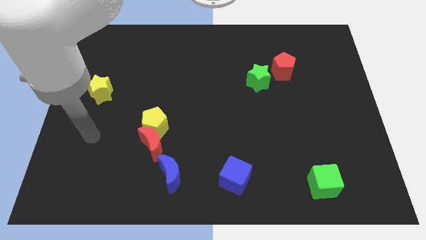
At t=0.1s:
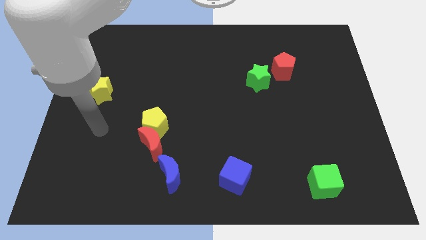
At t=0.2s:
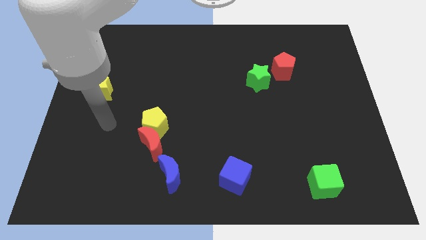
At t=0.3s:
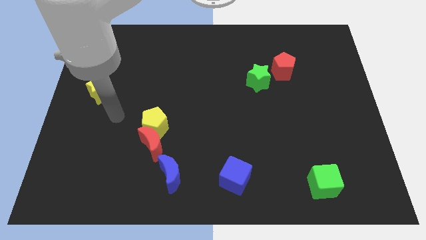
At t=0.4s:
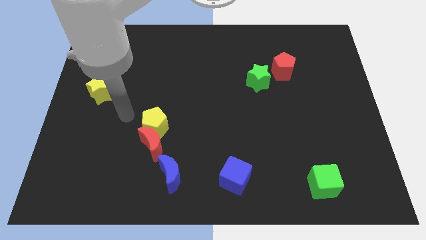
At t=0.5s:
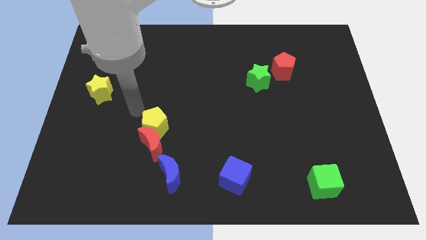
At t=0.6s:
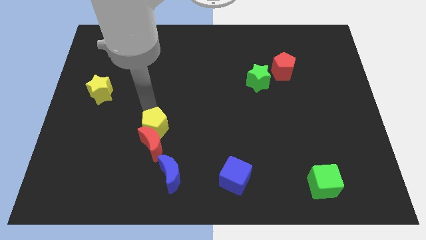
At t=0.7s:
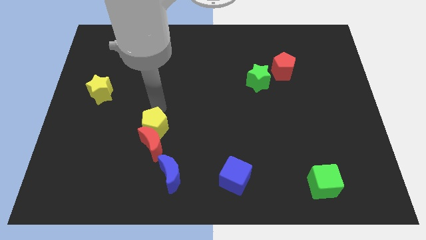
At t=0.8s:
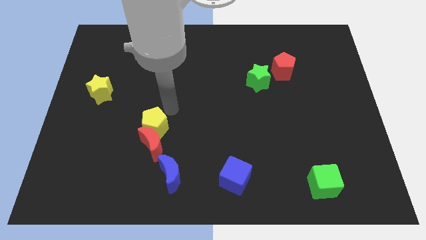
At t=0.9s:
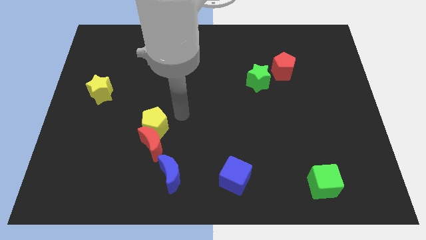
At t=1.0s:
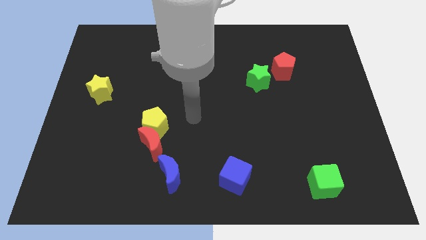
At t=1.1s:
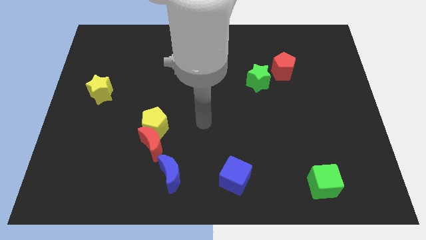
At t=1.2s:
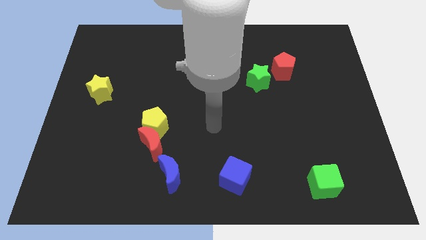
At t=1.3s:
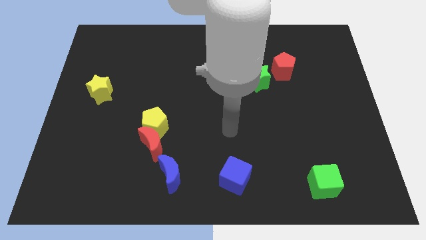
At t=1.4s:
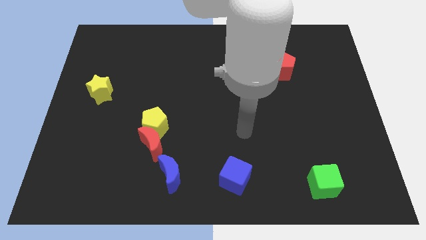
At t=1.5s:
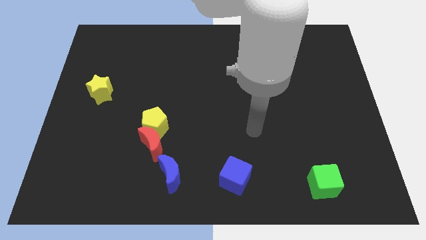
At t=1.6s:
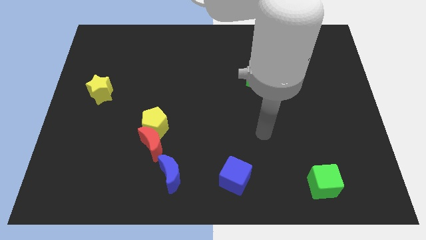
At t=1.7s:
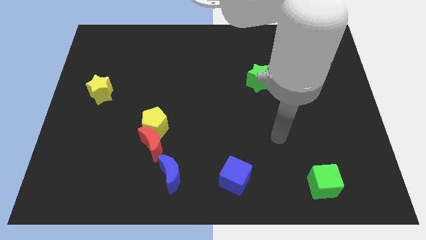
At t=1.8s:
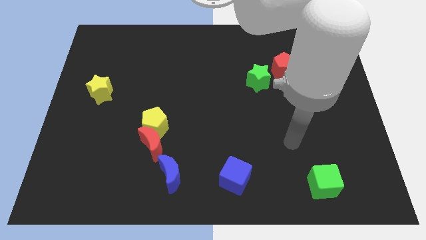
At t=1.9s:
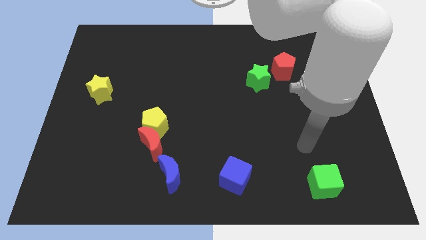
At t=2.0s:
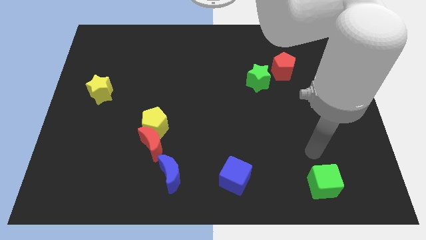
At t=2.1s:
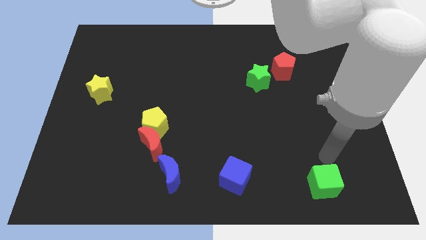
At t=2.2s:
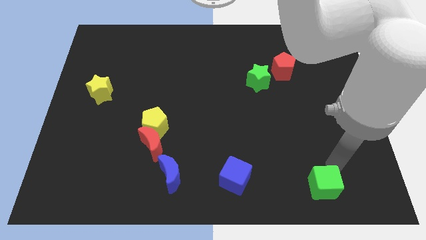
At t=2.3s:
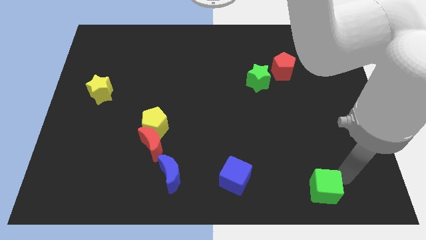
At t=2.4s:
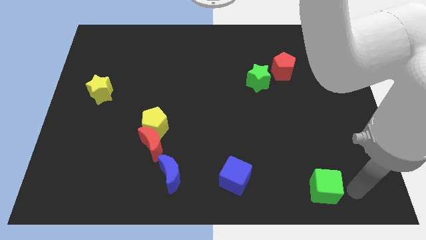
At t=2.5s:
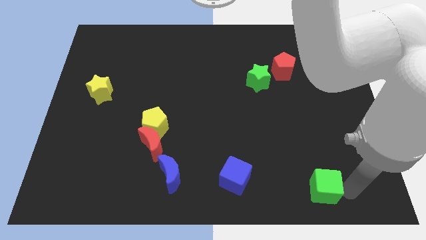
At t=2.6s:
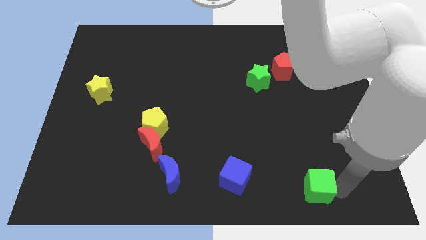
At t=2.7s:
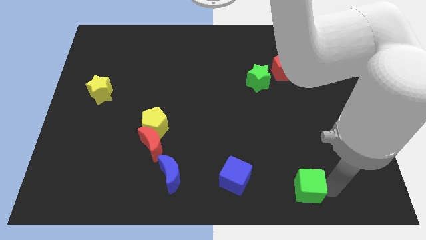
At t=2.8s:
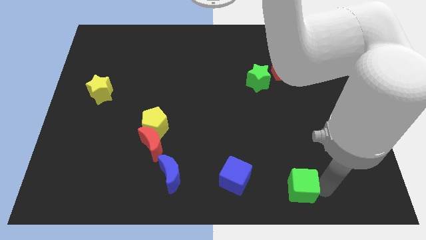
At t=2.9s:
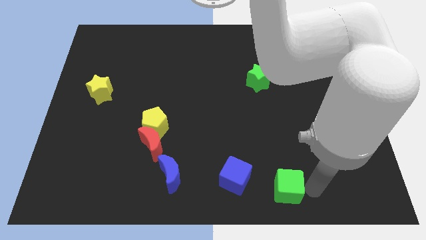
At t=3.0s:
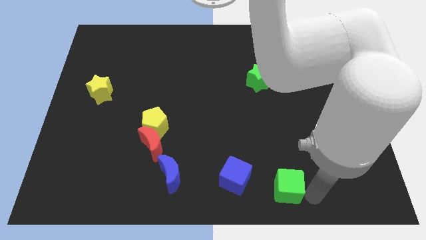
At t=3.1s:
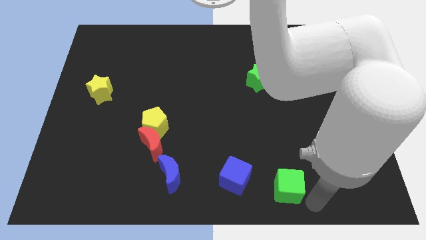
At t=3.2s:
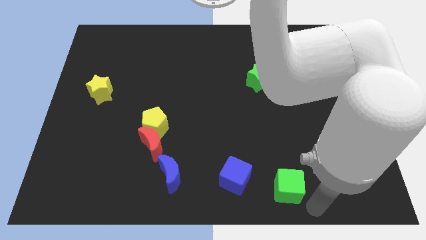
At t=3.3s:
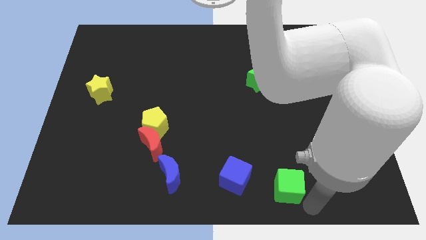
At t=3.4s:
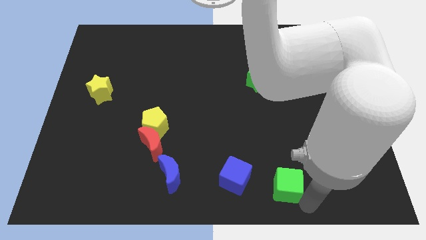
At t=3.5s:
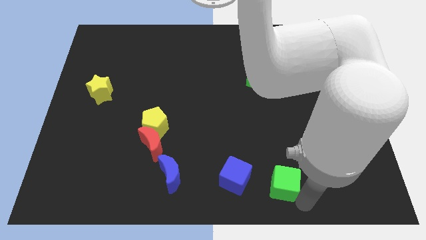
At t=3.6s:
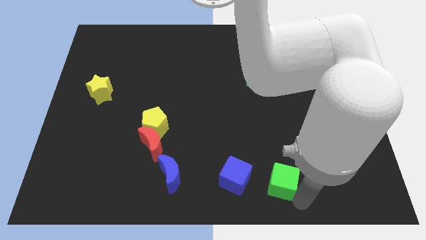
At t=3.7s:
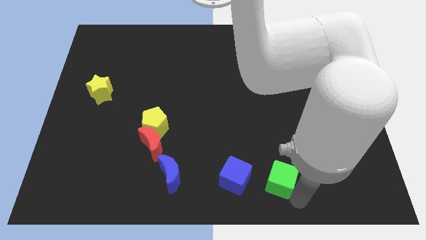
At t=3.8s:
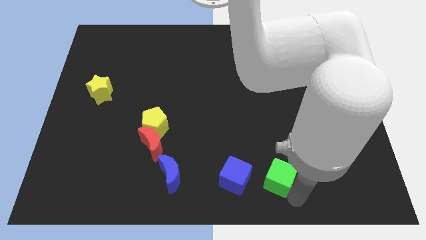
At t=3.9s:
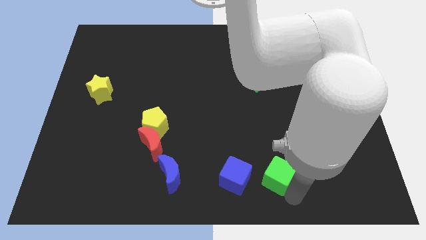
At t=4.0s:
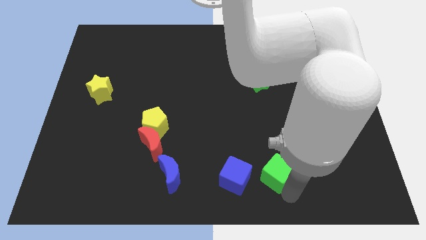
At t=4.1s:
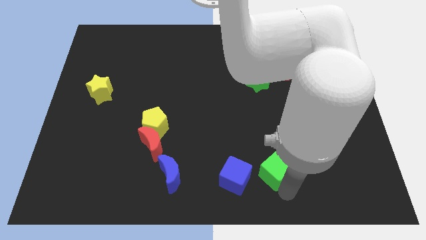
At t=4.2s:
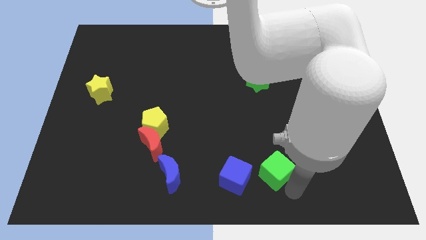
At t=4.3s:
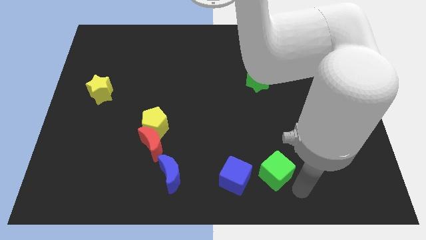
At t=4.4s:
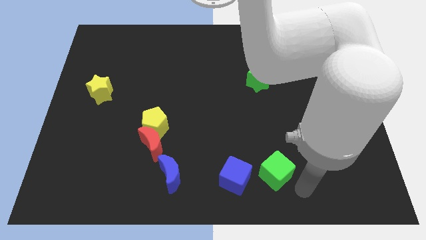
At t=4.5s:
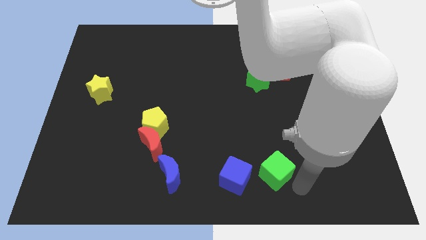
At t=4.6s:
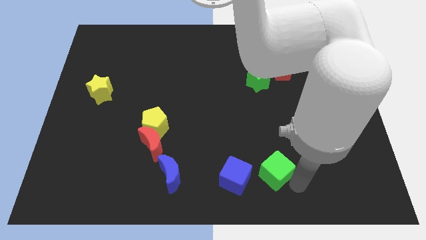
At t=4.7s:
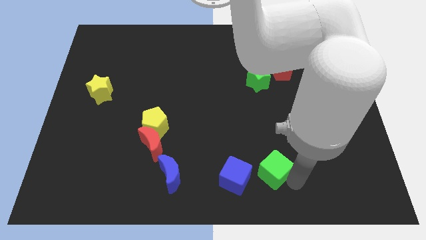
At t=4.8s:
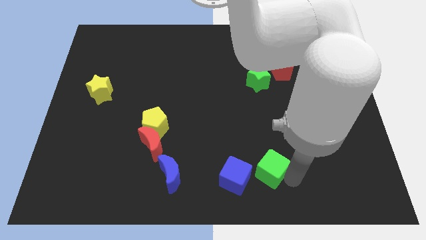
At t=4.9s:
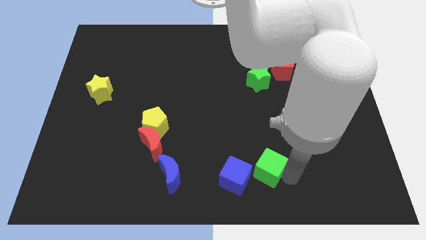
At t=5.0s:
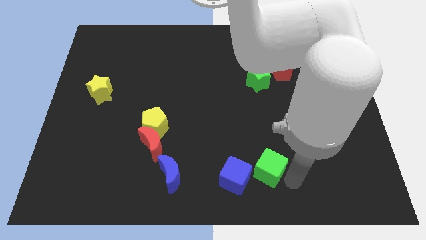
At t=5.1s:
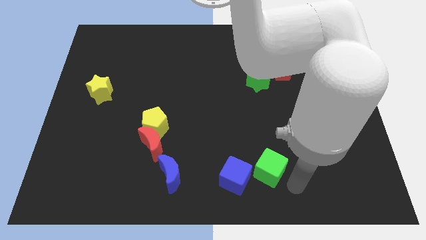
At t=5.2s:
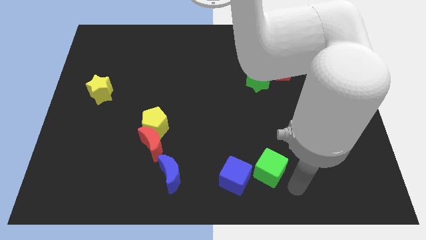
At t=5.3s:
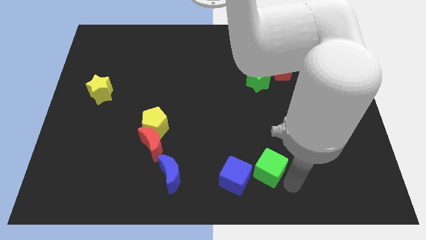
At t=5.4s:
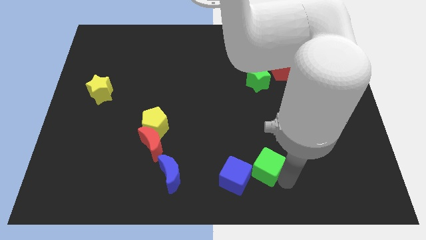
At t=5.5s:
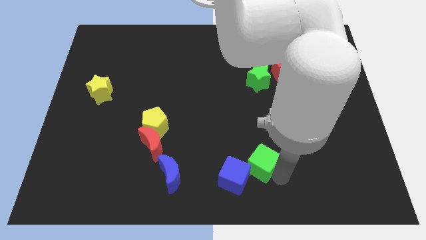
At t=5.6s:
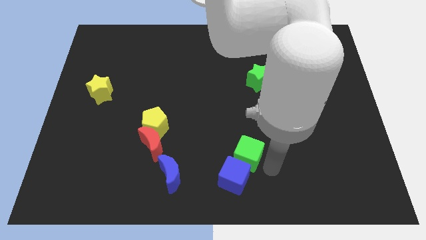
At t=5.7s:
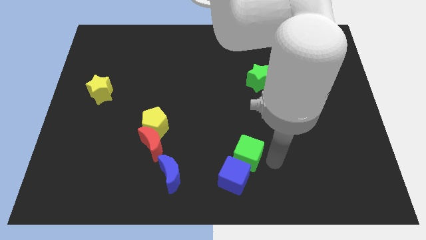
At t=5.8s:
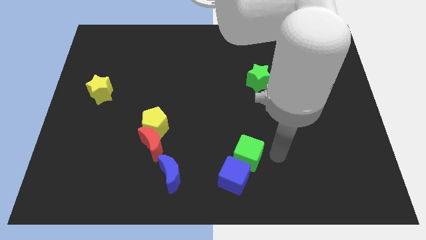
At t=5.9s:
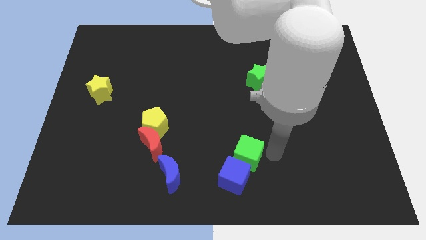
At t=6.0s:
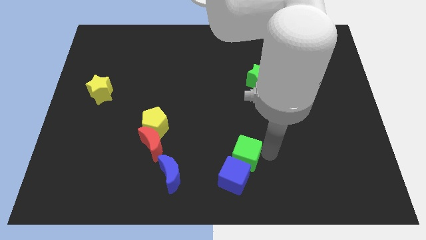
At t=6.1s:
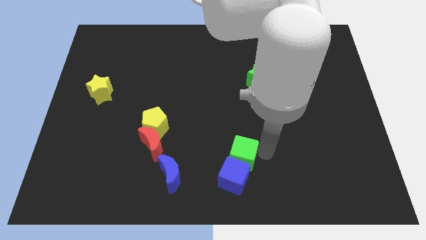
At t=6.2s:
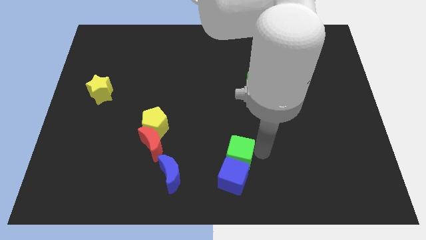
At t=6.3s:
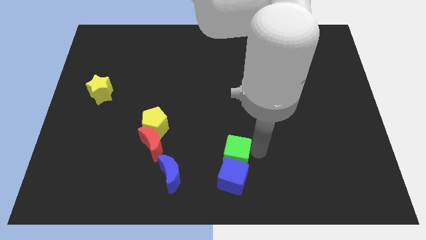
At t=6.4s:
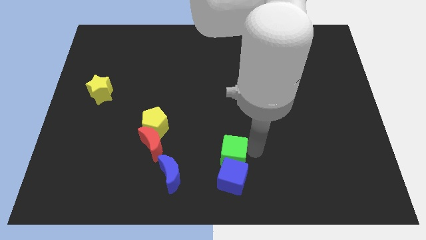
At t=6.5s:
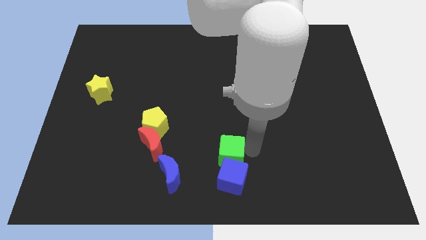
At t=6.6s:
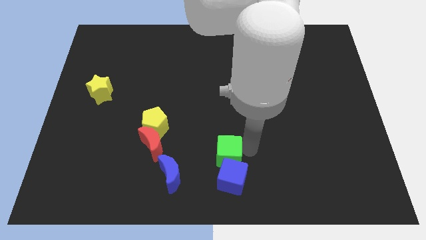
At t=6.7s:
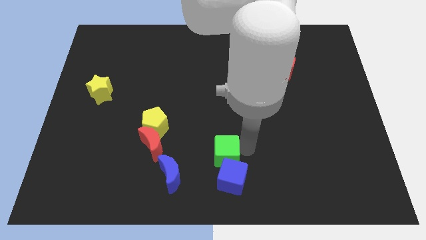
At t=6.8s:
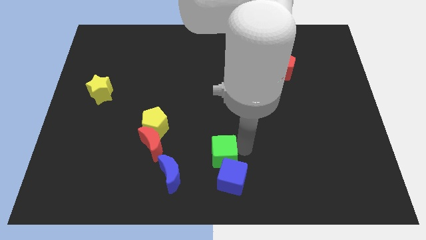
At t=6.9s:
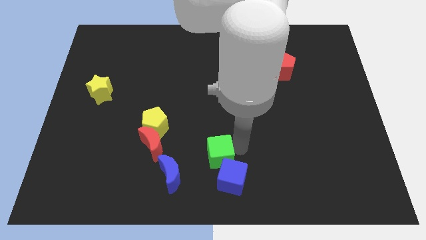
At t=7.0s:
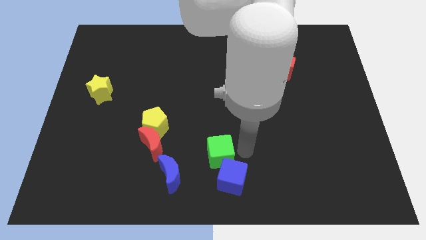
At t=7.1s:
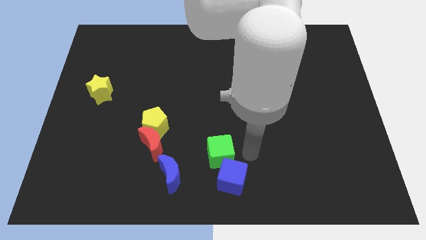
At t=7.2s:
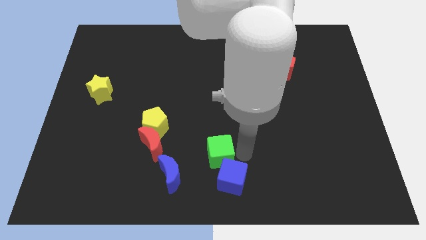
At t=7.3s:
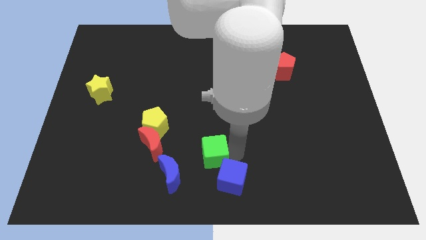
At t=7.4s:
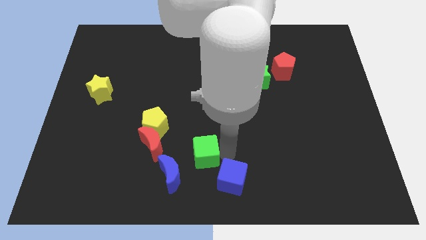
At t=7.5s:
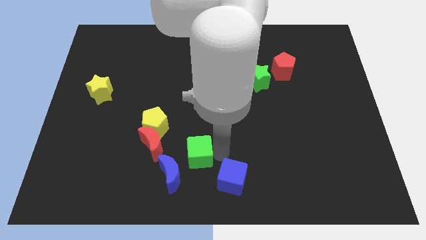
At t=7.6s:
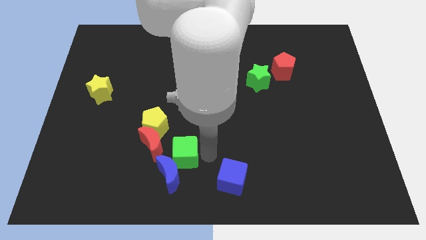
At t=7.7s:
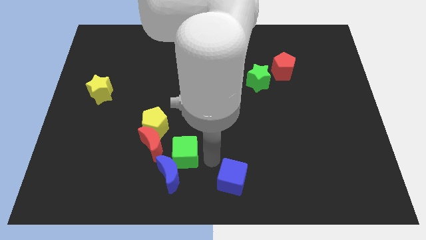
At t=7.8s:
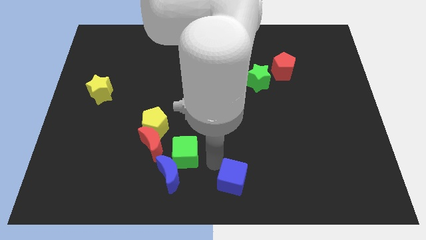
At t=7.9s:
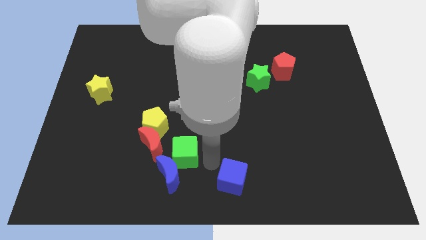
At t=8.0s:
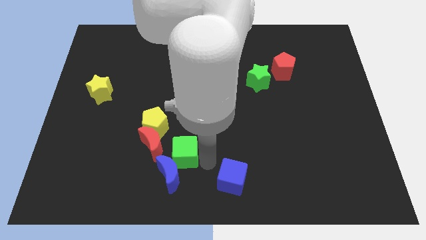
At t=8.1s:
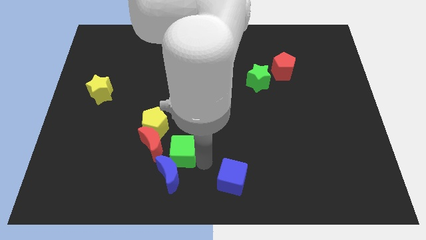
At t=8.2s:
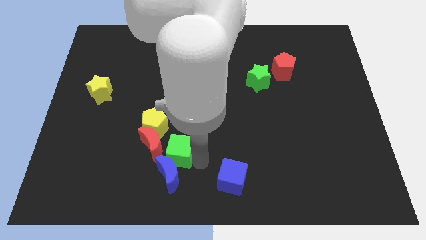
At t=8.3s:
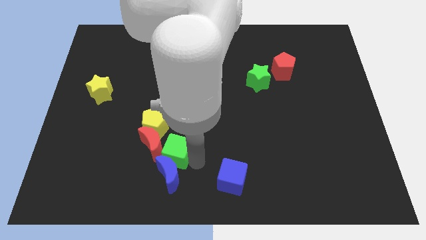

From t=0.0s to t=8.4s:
slide the green cube to the red moon
